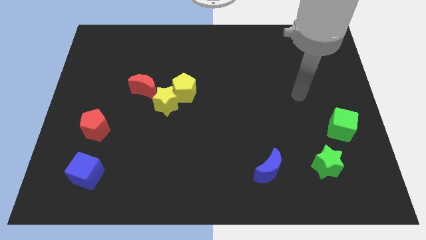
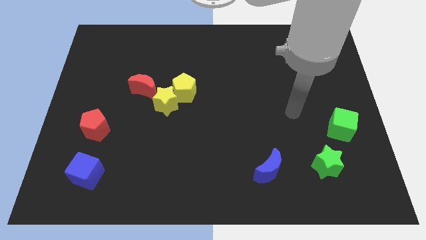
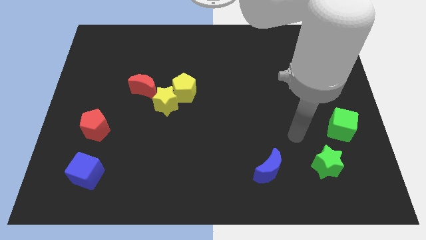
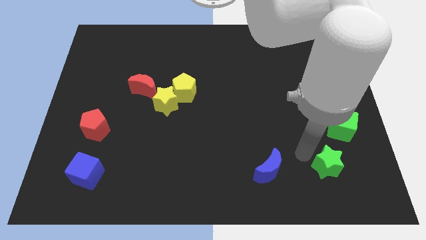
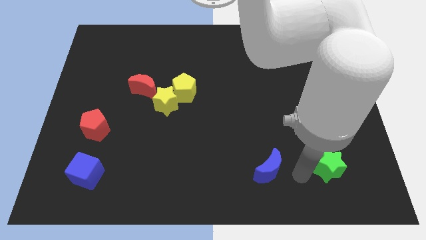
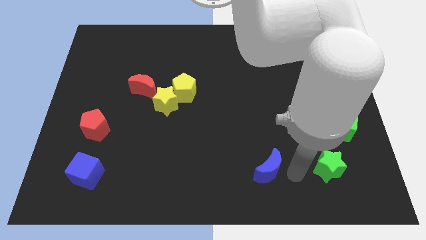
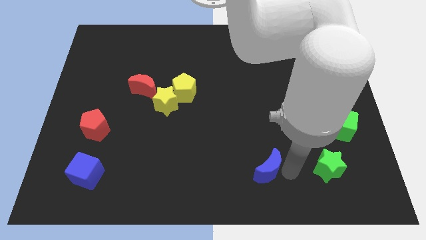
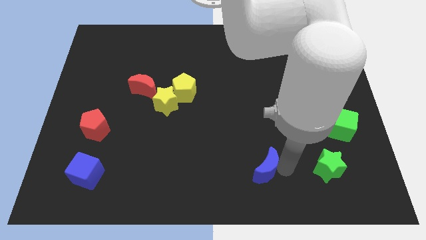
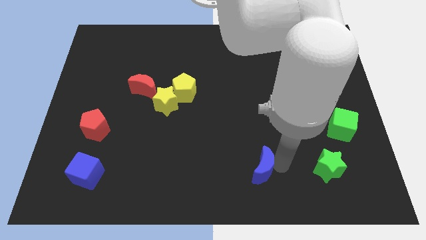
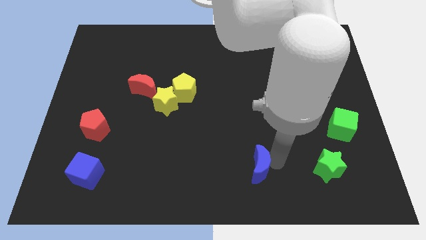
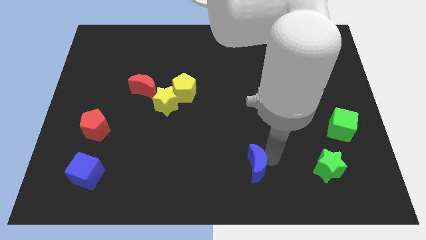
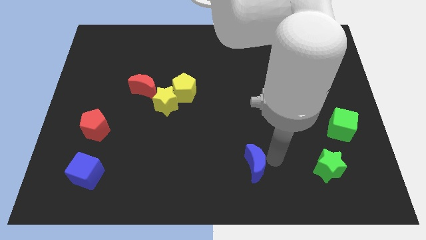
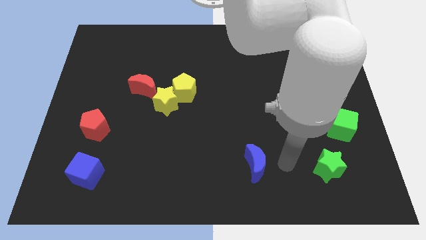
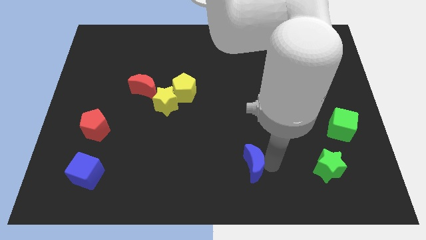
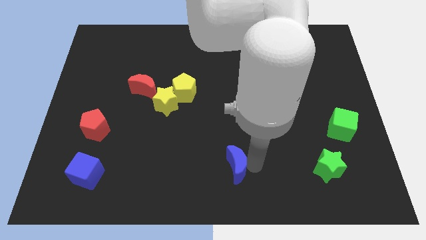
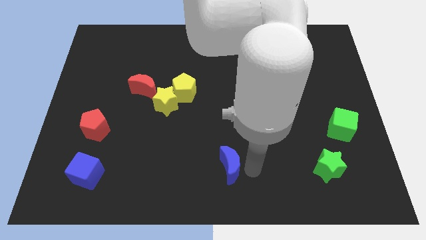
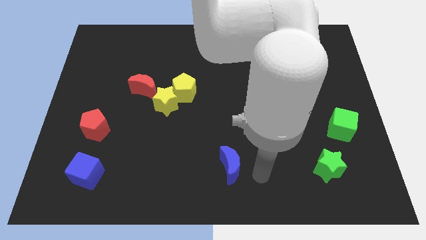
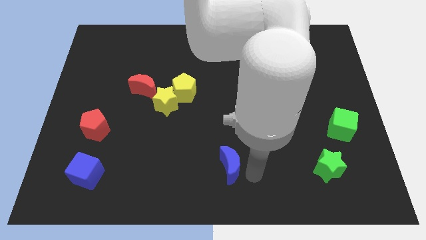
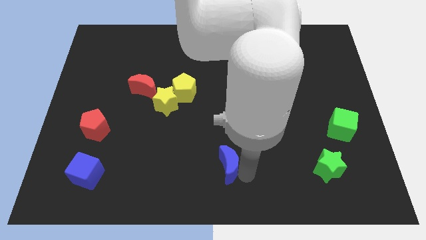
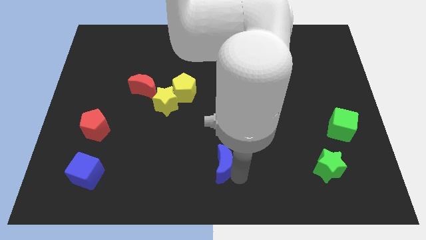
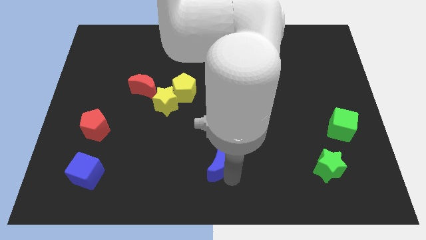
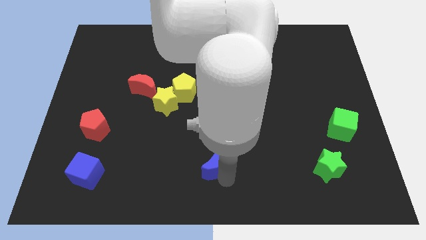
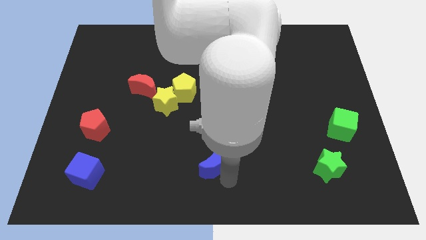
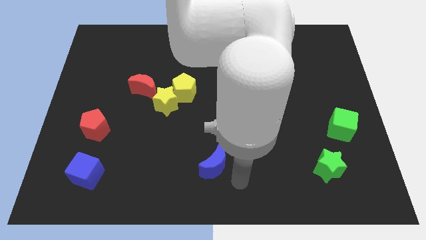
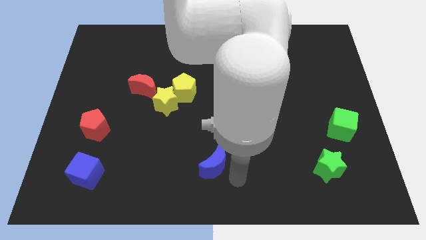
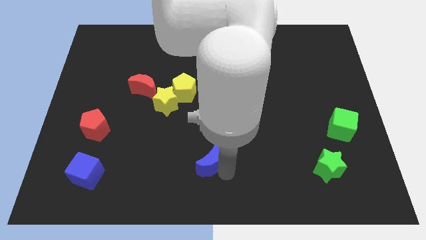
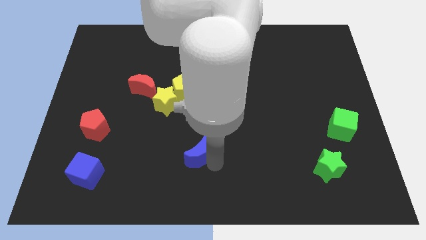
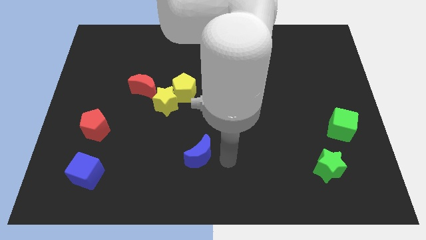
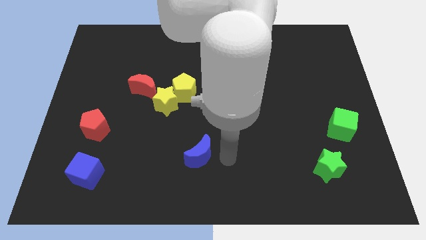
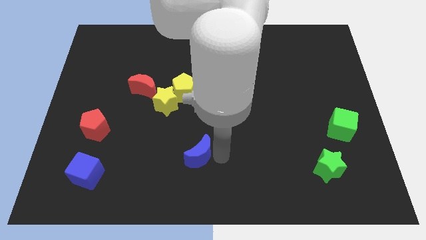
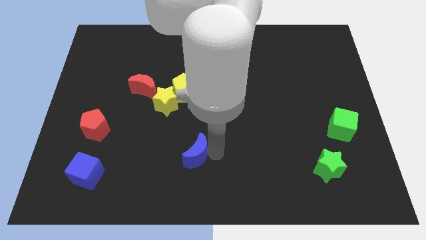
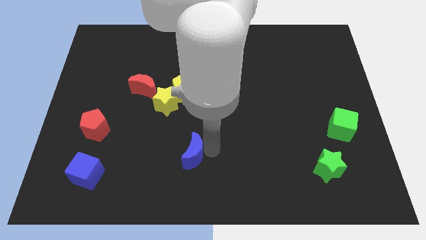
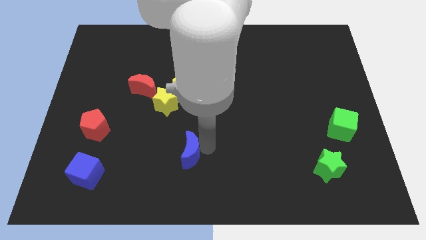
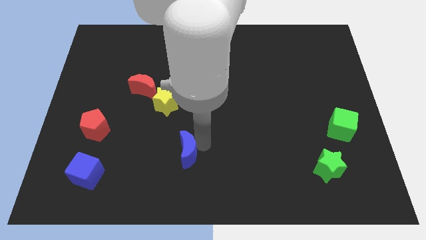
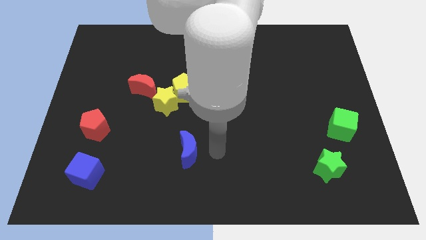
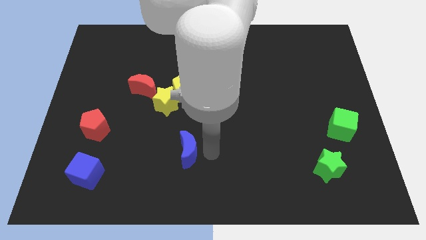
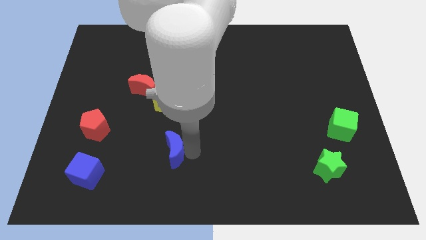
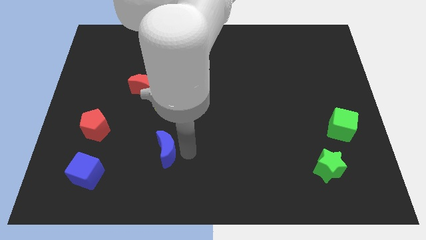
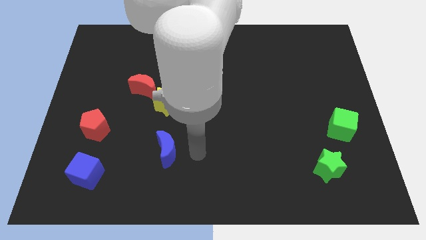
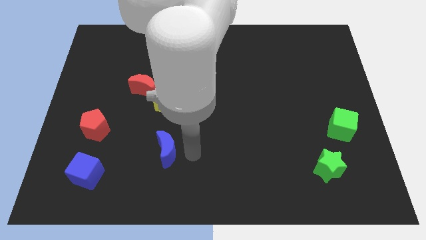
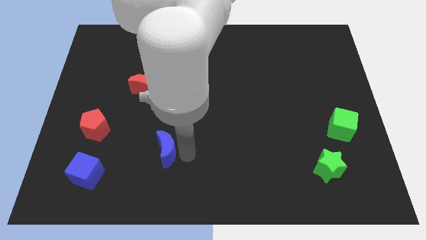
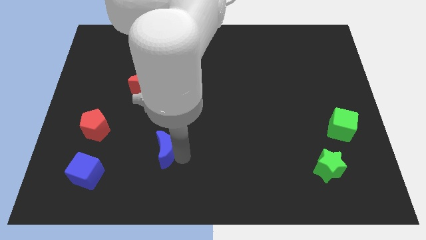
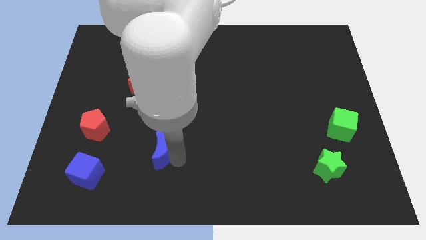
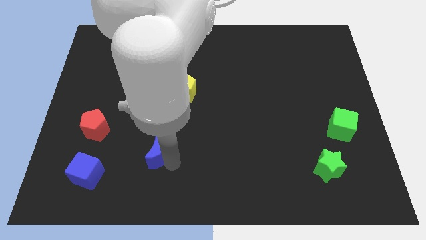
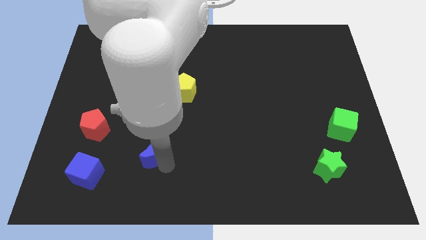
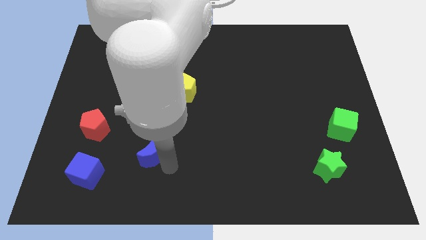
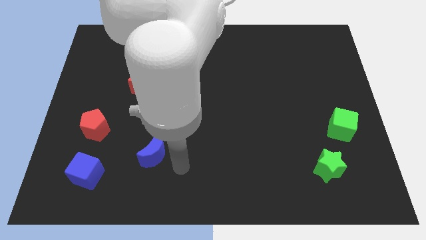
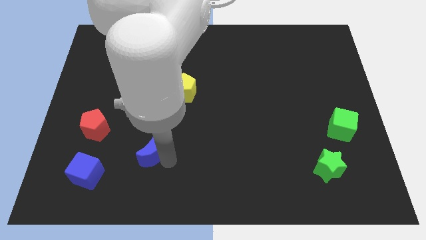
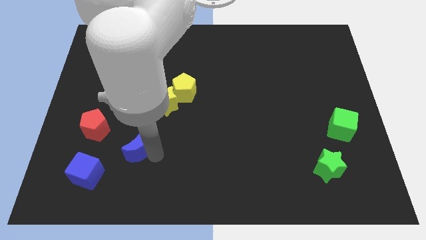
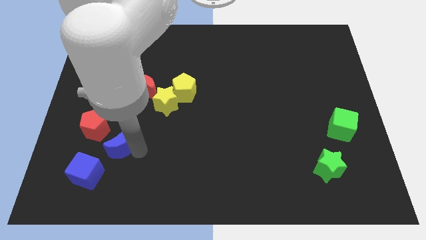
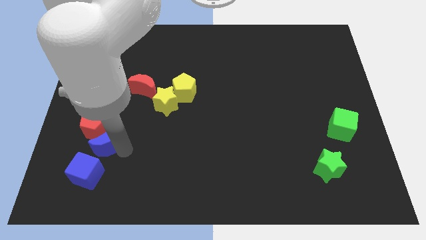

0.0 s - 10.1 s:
slide the blue moon to the red pentagon

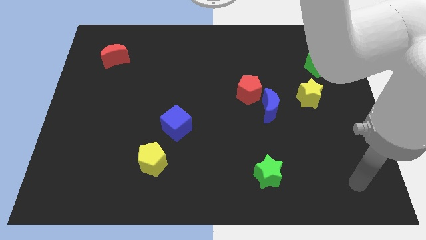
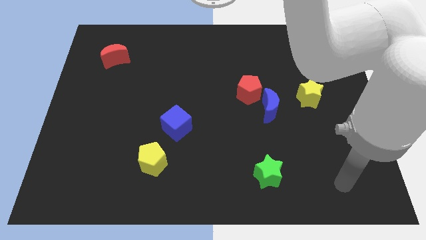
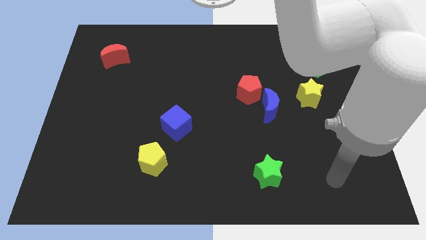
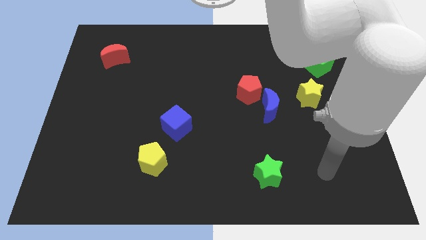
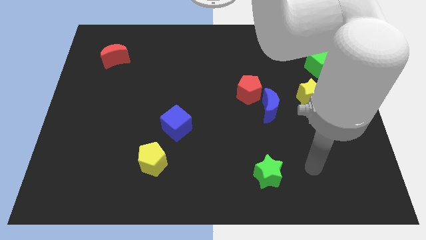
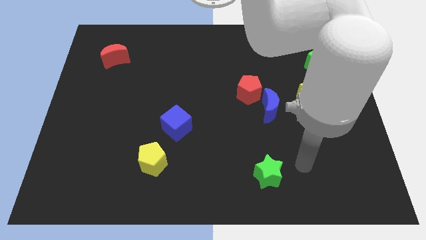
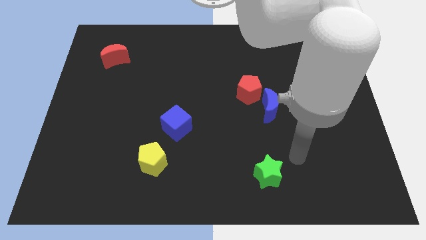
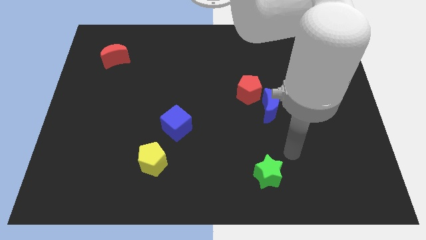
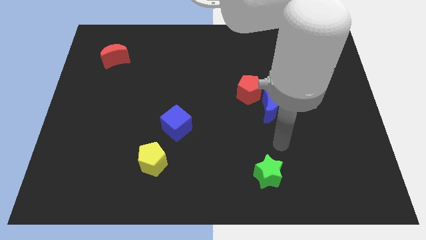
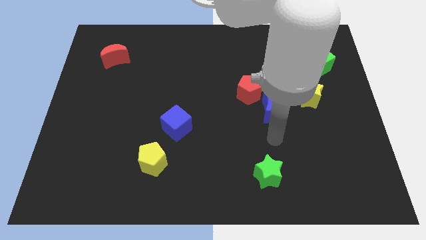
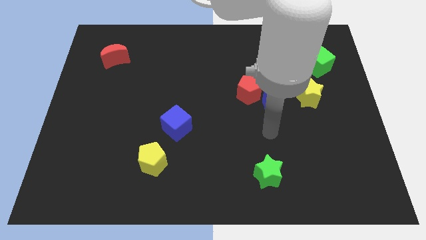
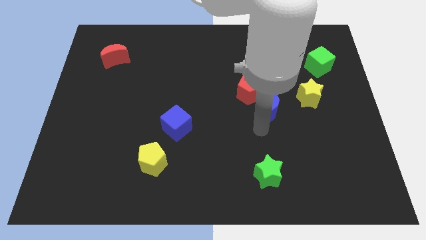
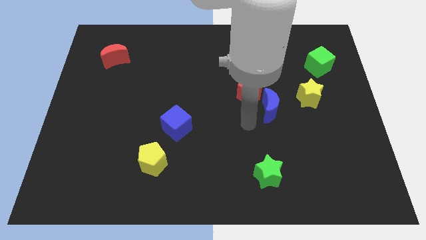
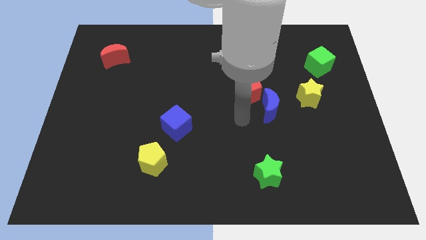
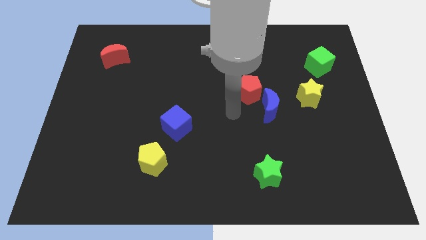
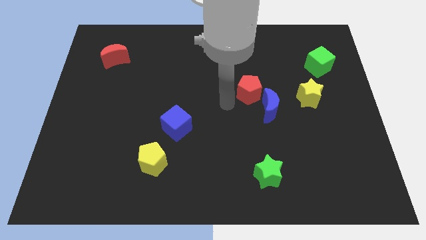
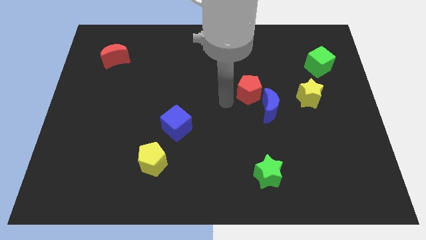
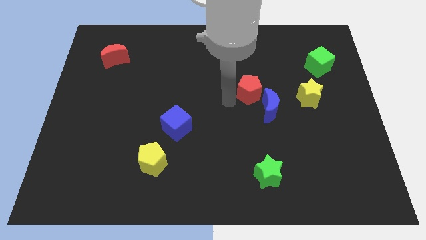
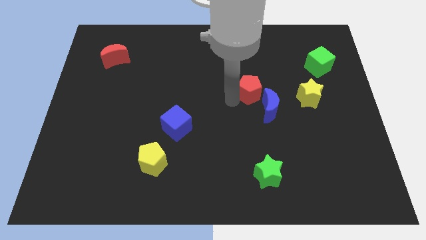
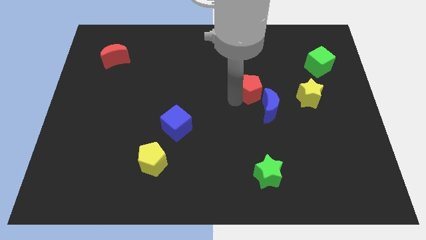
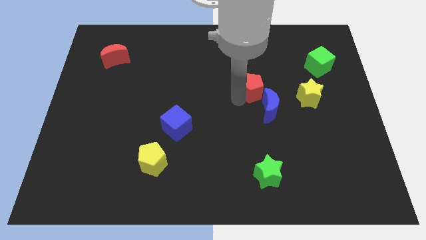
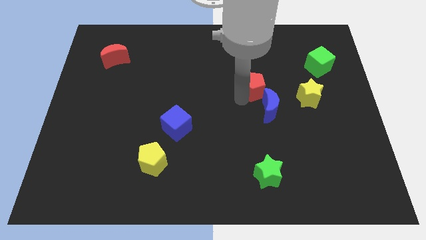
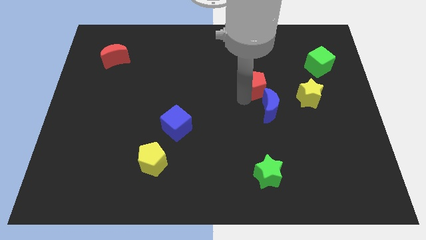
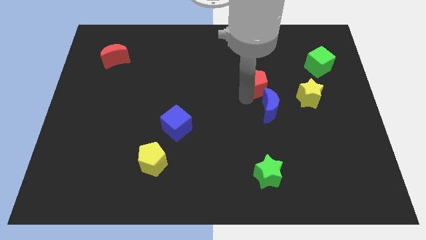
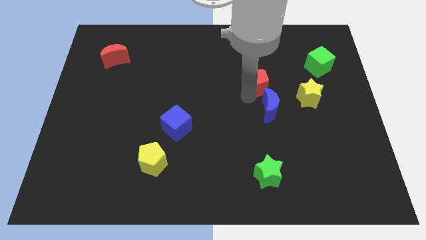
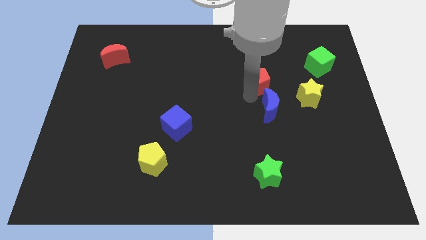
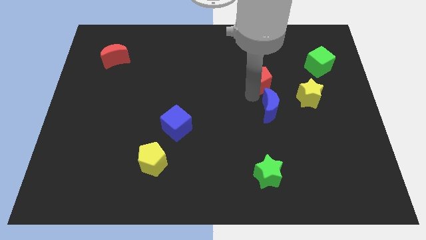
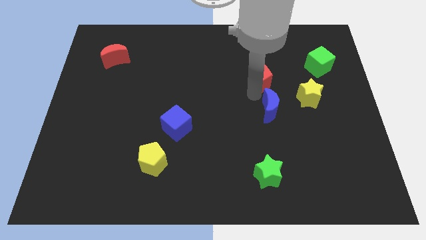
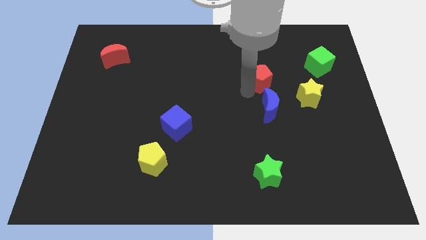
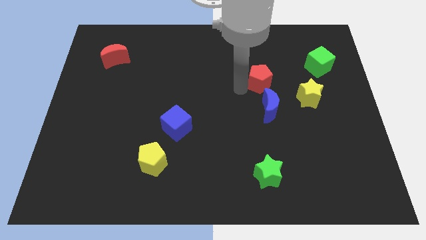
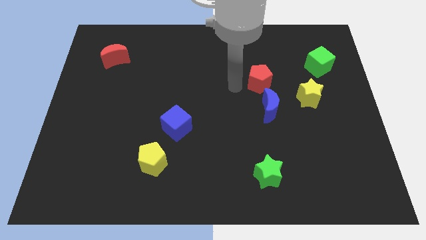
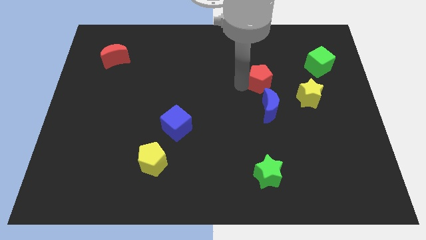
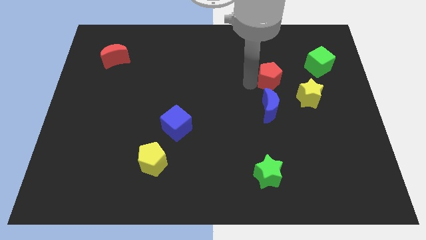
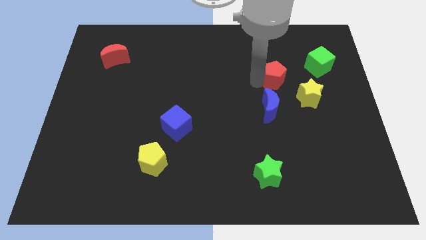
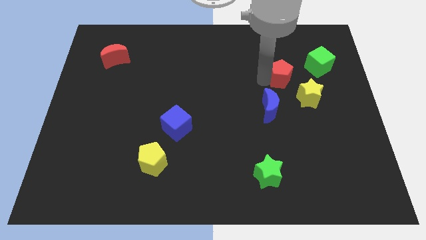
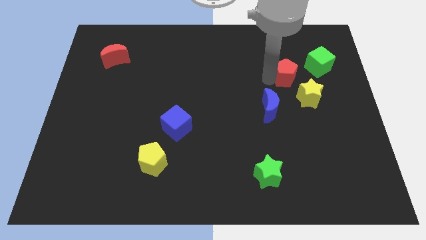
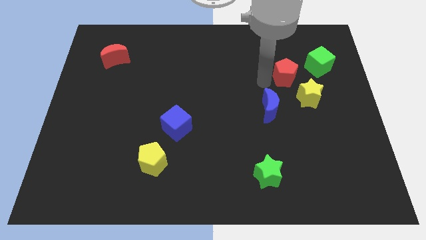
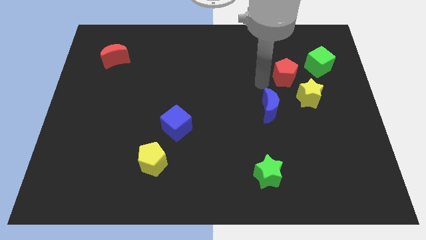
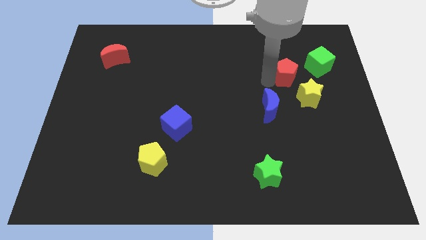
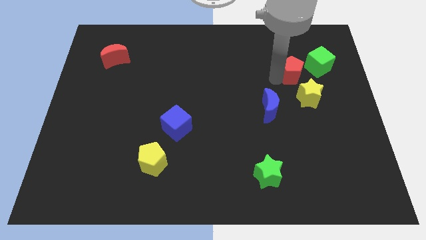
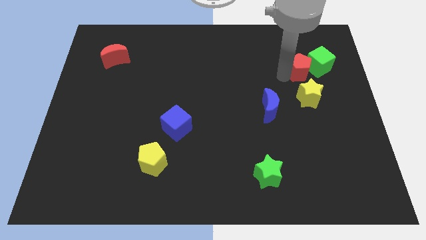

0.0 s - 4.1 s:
move the red pentagon towards the green cube
